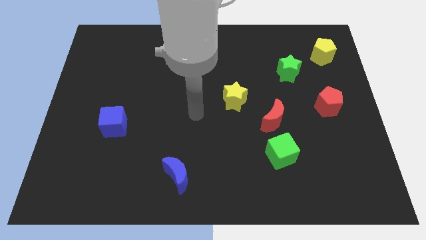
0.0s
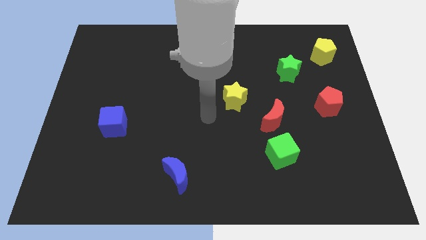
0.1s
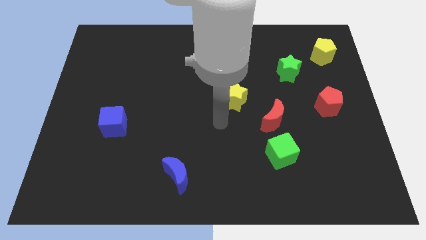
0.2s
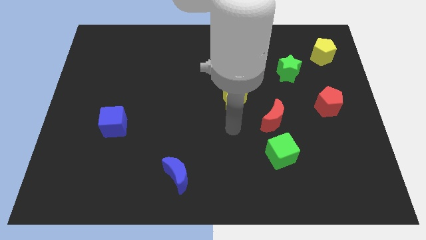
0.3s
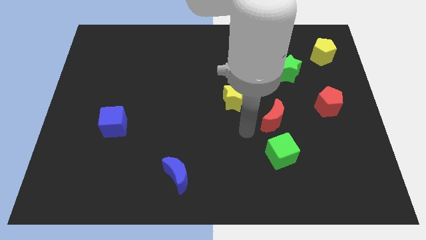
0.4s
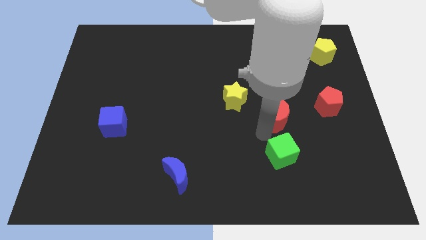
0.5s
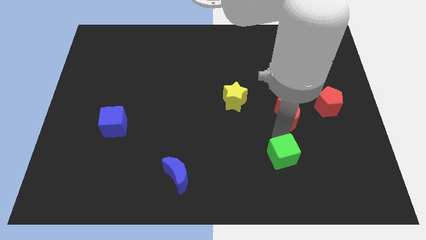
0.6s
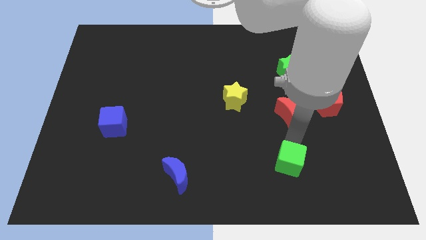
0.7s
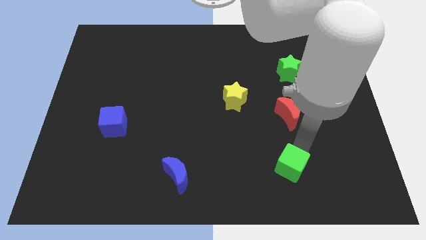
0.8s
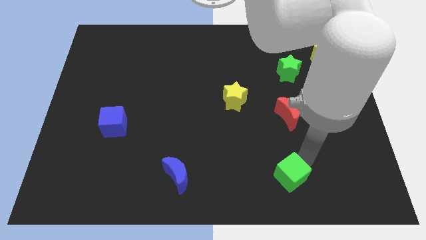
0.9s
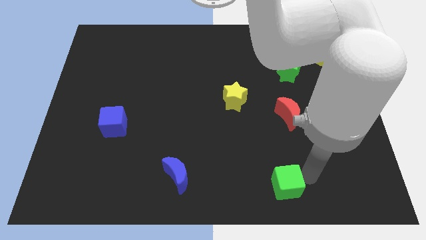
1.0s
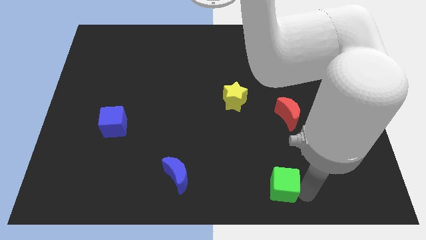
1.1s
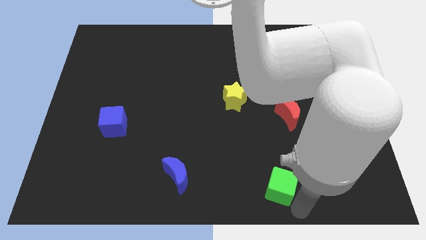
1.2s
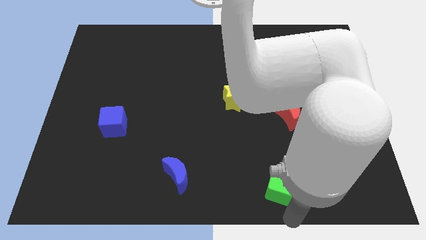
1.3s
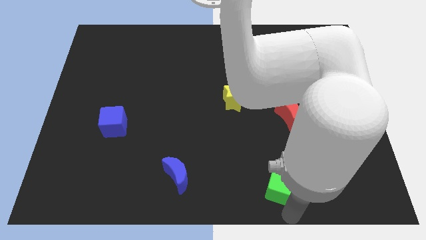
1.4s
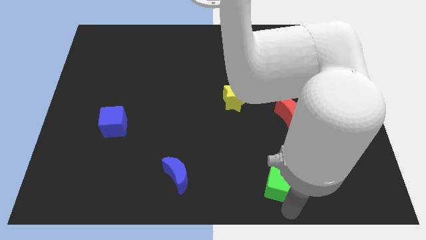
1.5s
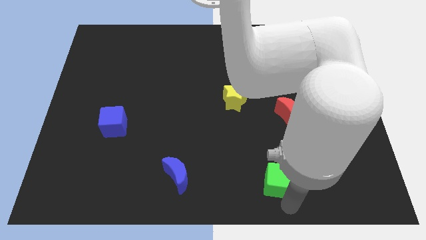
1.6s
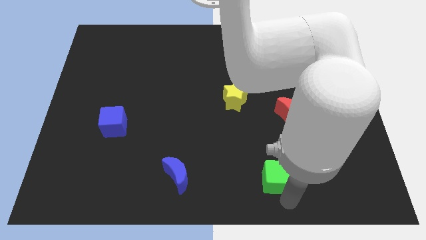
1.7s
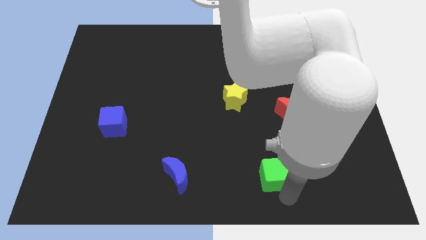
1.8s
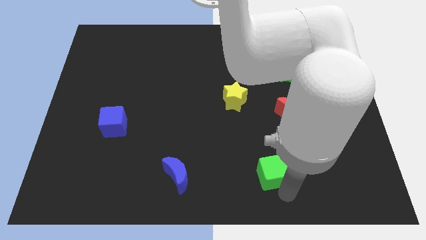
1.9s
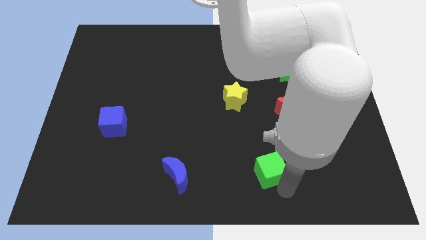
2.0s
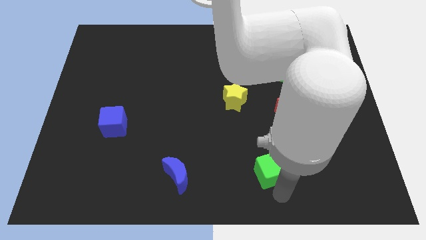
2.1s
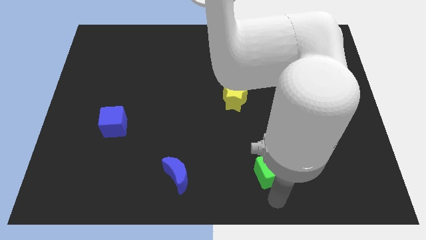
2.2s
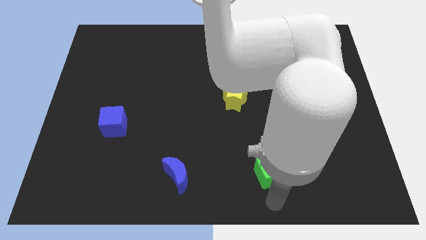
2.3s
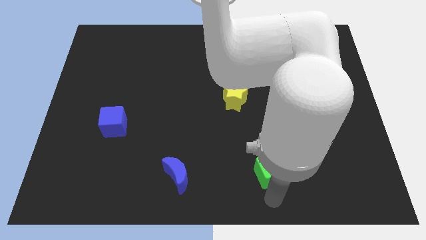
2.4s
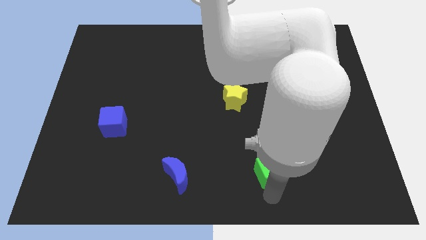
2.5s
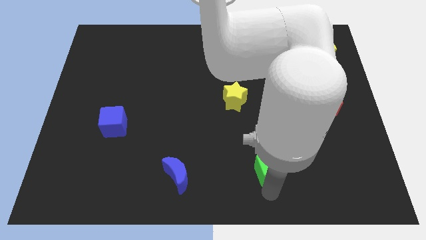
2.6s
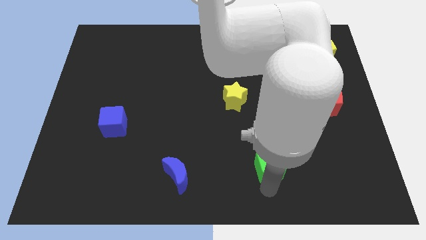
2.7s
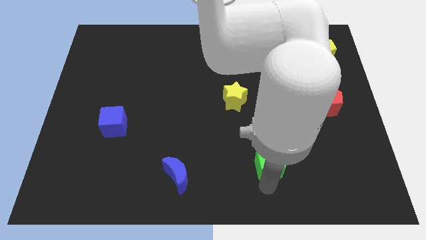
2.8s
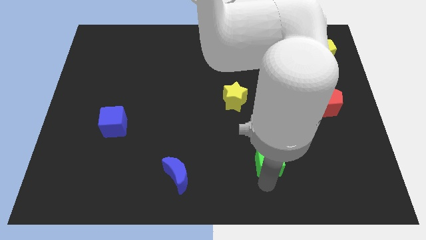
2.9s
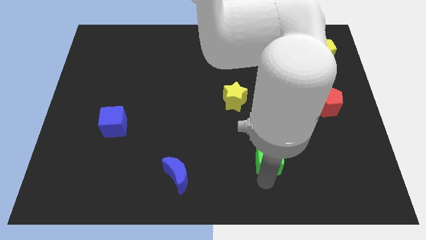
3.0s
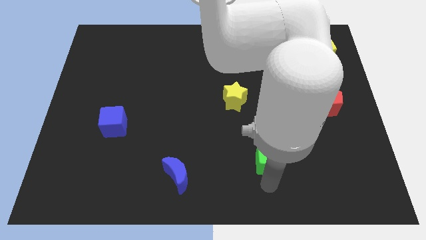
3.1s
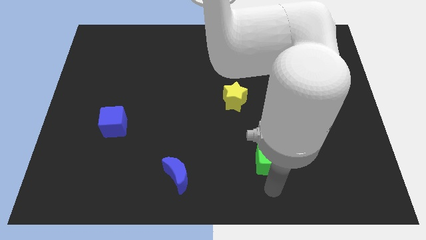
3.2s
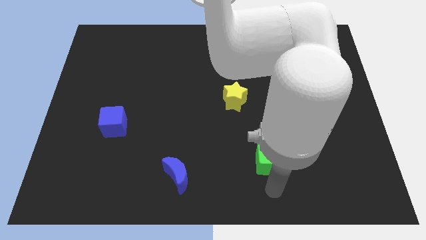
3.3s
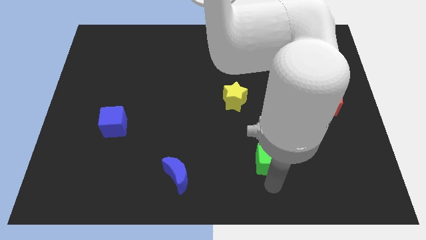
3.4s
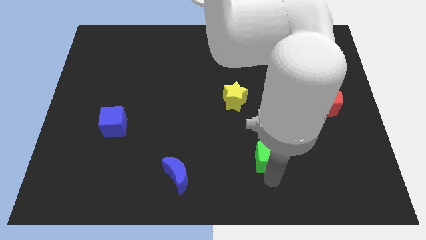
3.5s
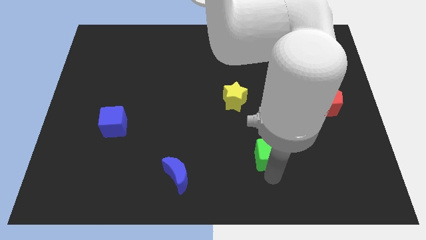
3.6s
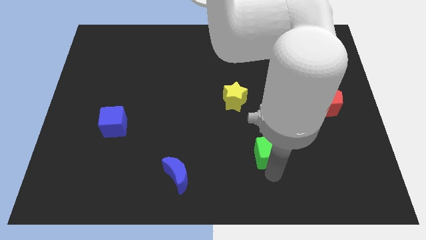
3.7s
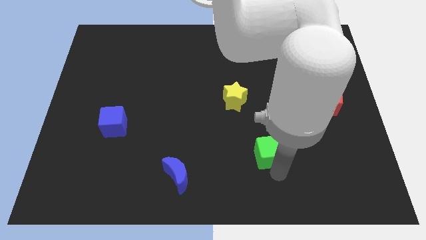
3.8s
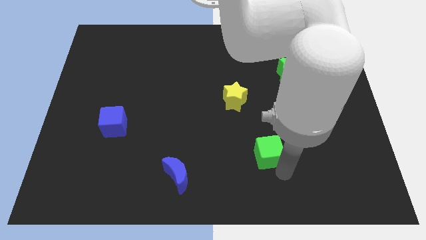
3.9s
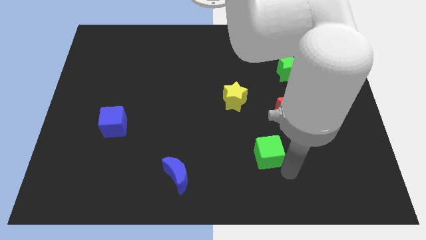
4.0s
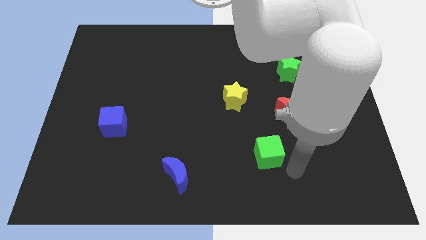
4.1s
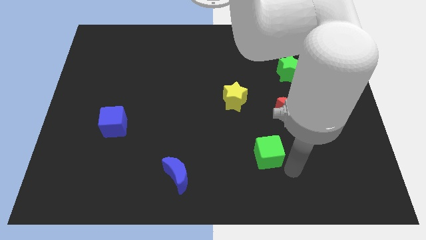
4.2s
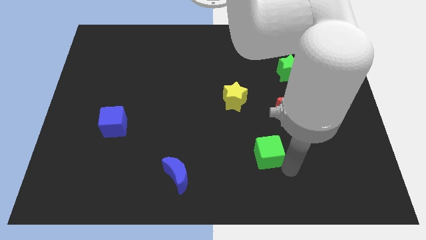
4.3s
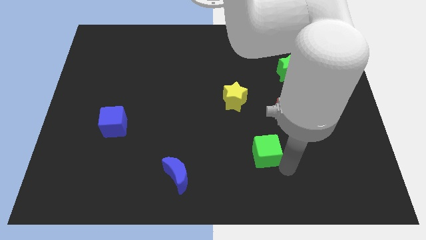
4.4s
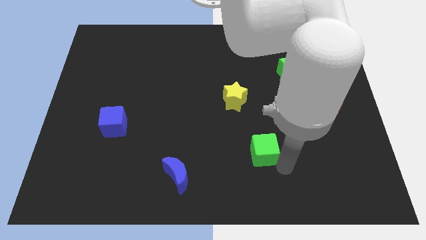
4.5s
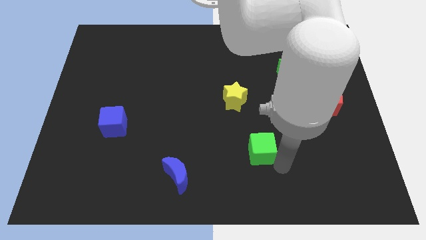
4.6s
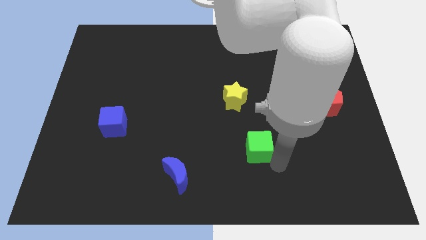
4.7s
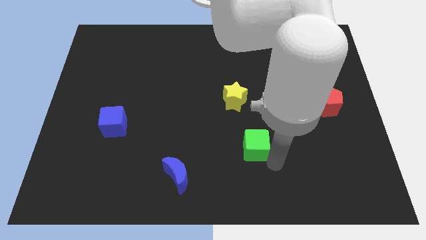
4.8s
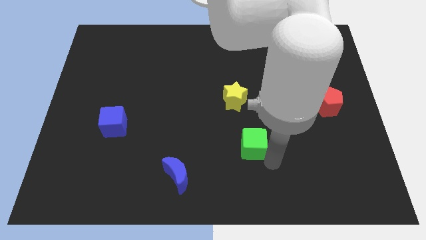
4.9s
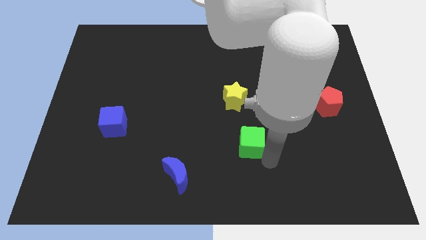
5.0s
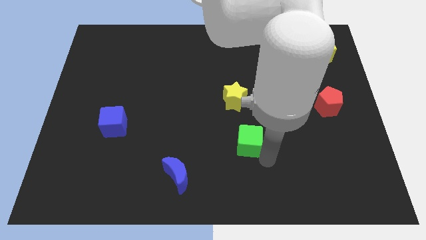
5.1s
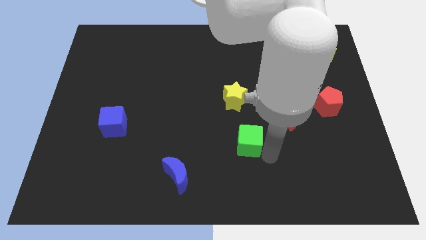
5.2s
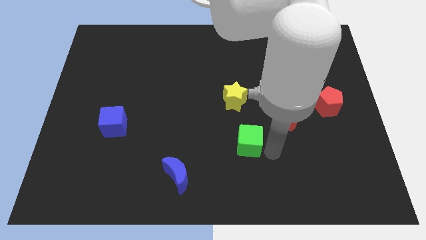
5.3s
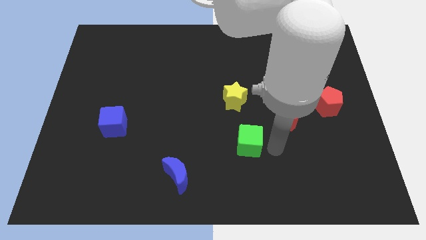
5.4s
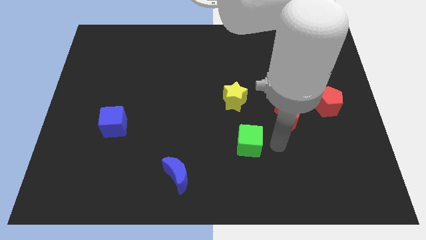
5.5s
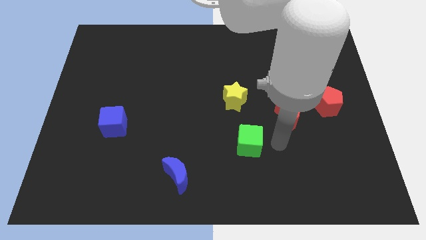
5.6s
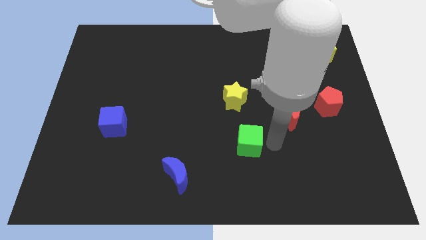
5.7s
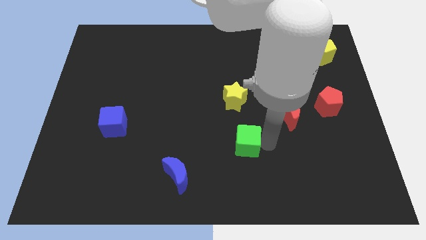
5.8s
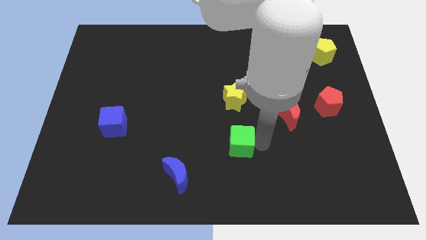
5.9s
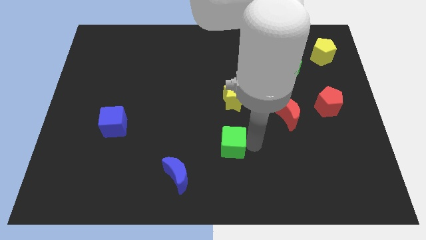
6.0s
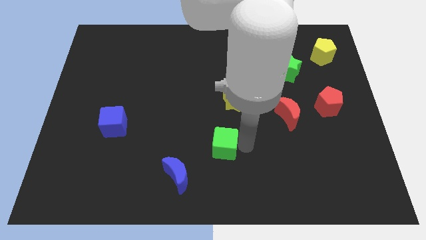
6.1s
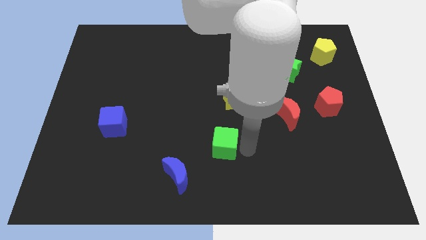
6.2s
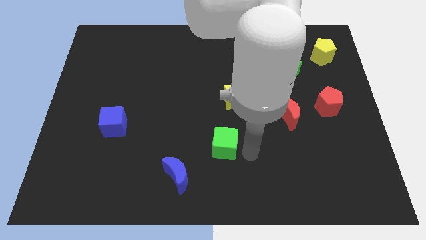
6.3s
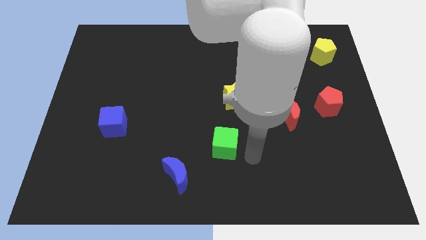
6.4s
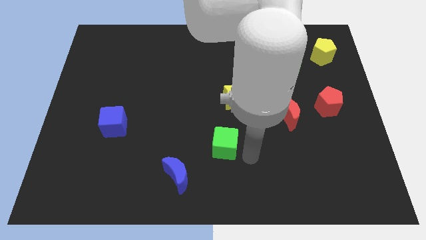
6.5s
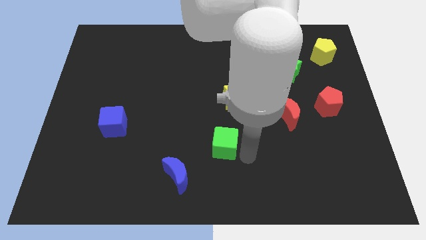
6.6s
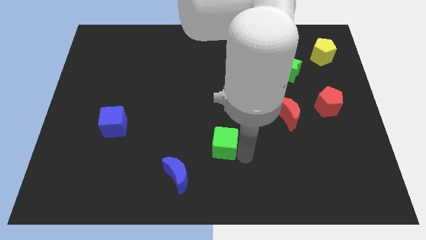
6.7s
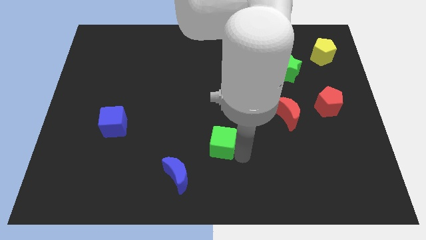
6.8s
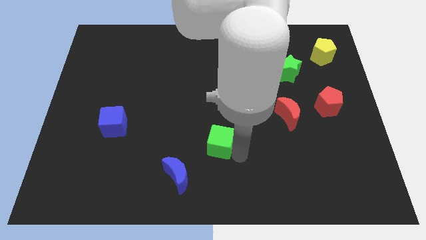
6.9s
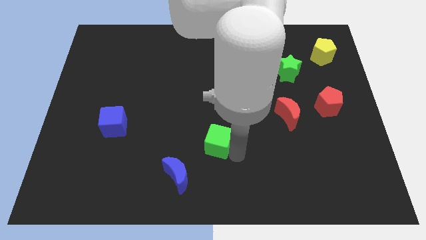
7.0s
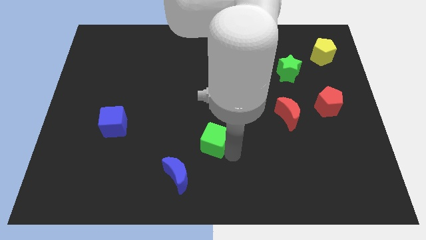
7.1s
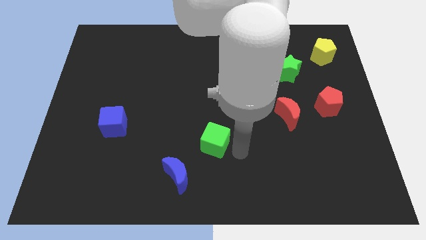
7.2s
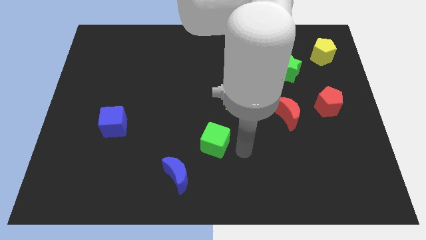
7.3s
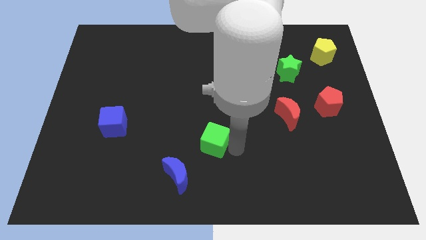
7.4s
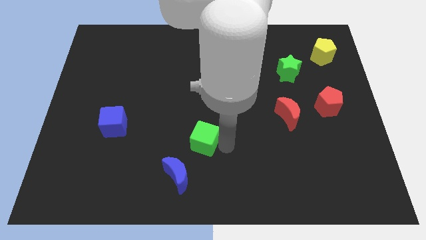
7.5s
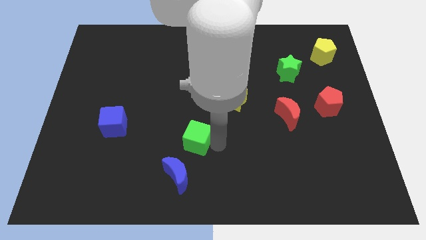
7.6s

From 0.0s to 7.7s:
put the green cube to the top side of the blue moon
